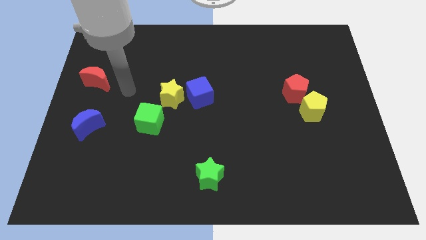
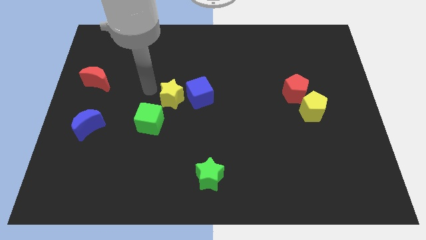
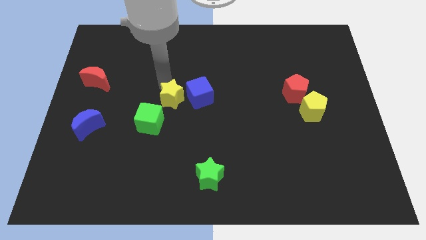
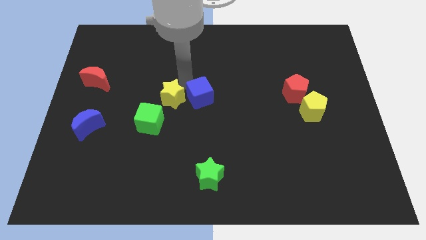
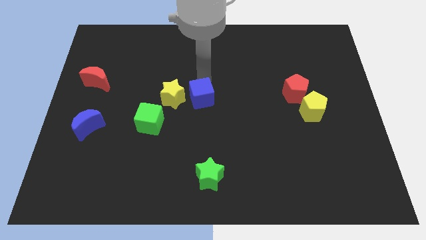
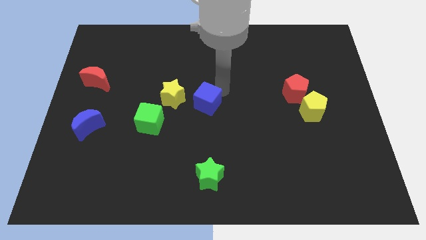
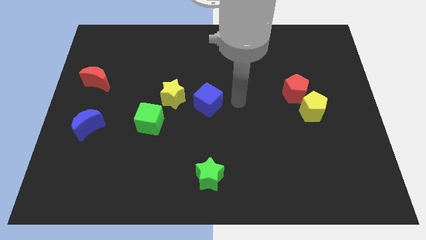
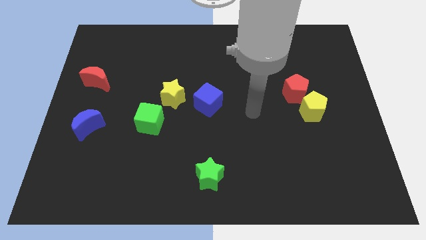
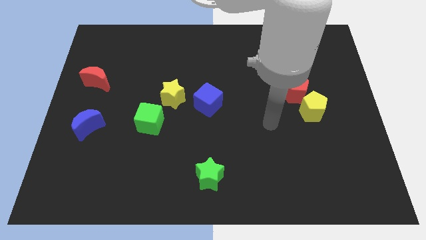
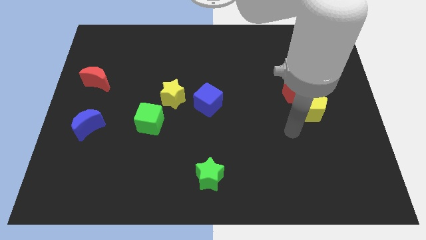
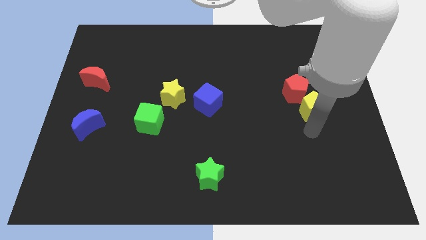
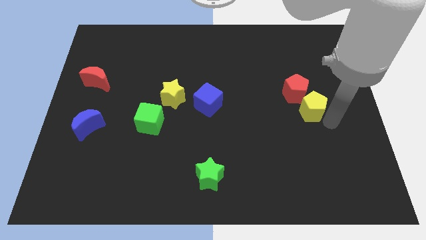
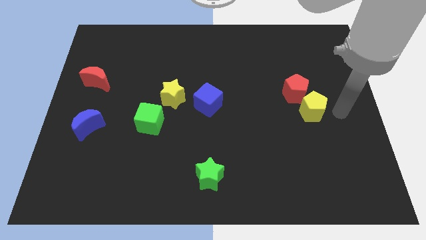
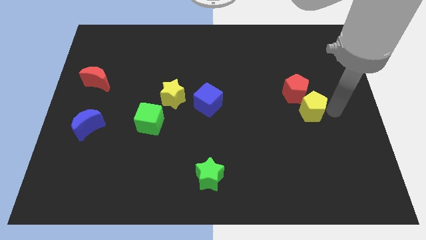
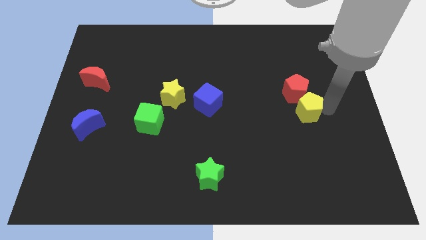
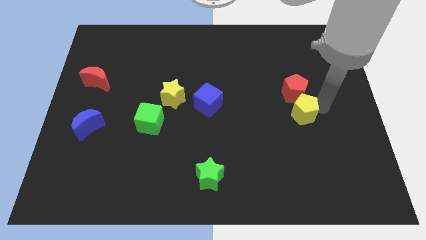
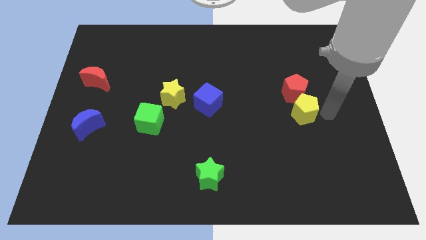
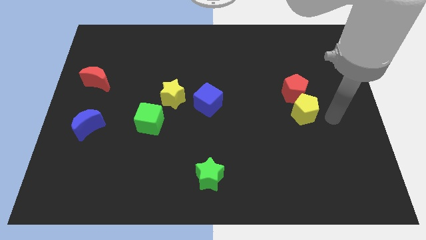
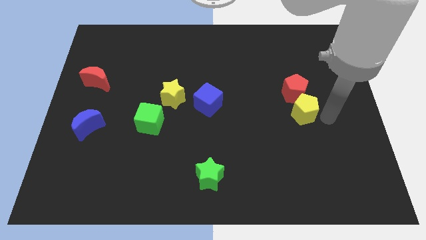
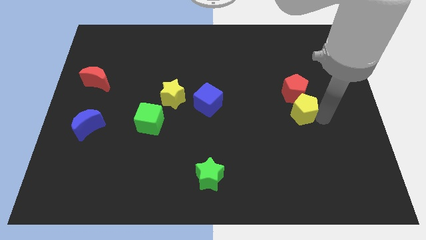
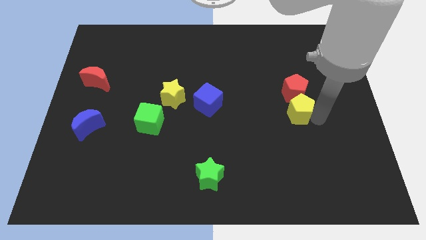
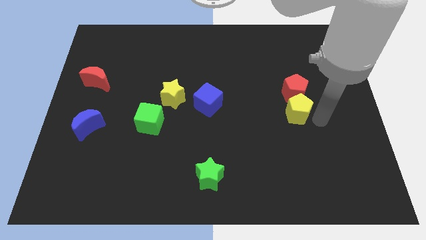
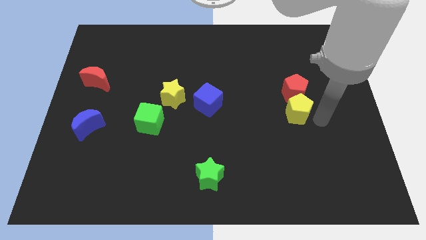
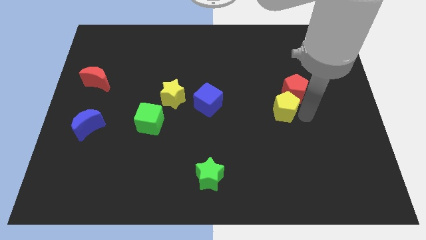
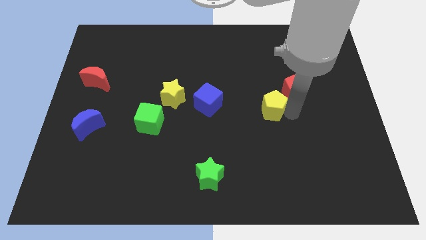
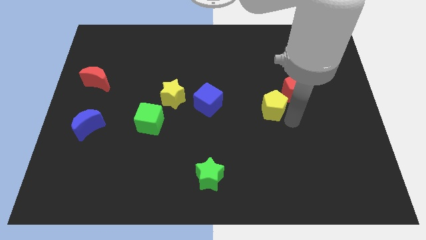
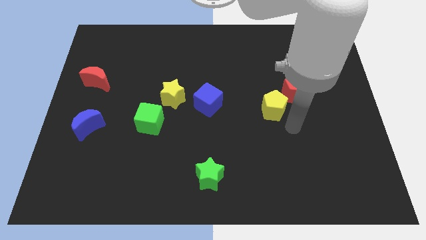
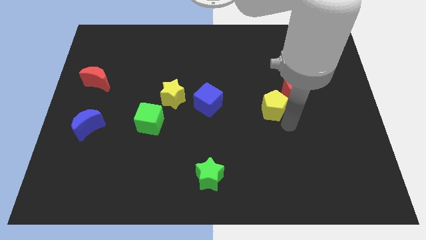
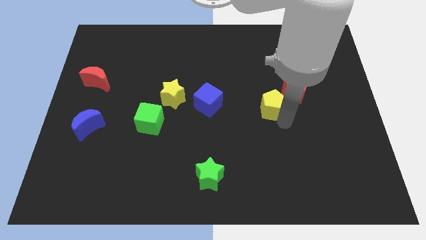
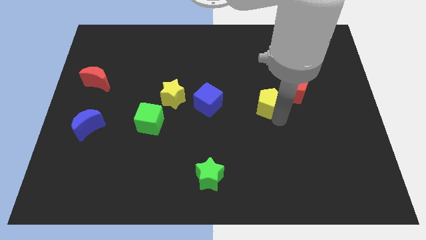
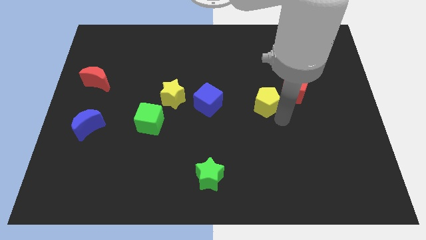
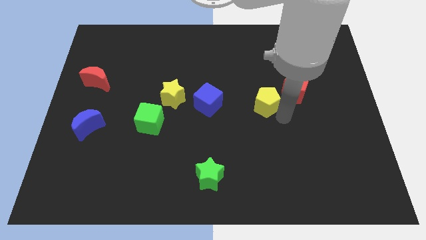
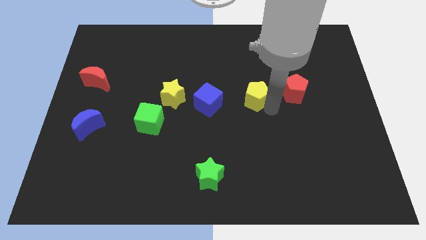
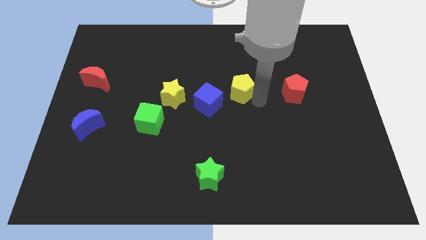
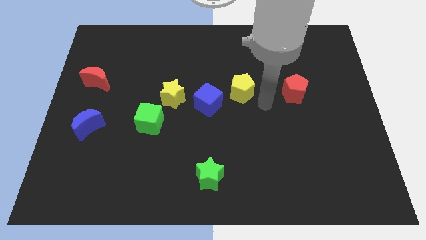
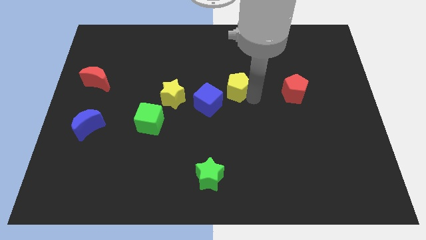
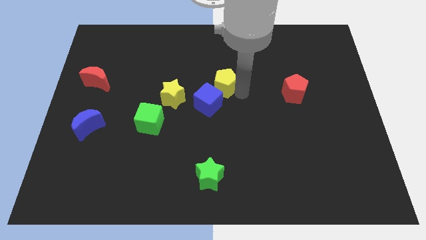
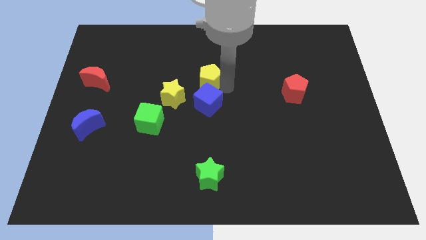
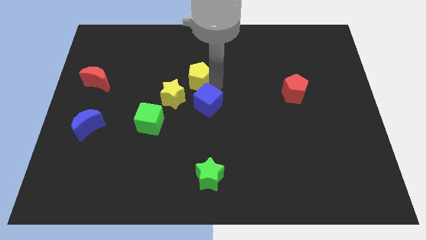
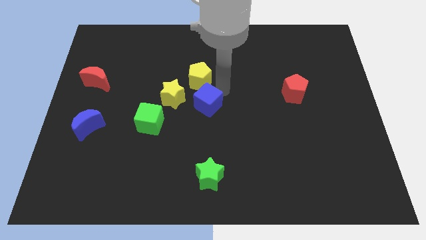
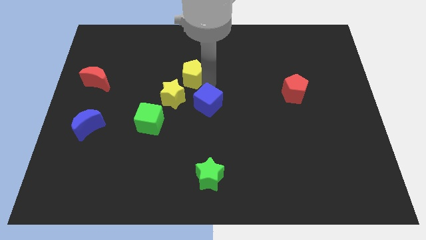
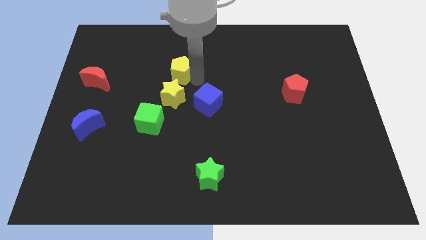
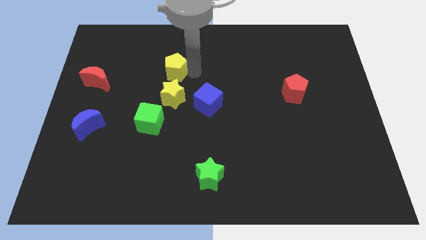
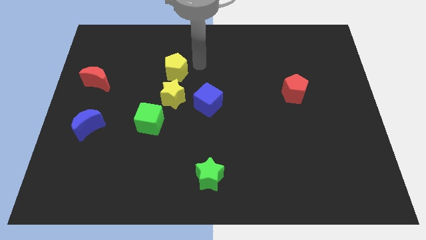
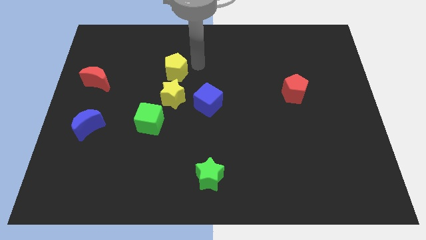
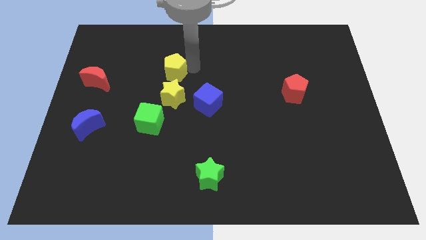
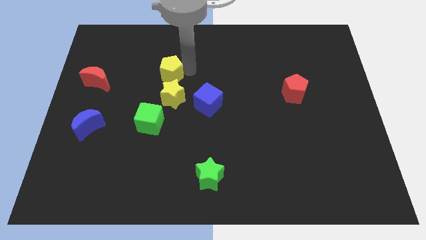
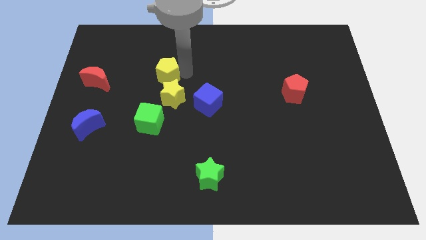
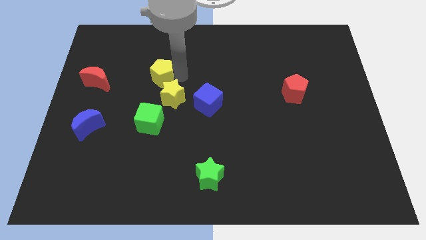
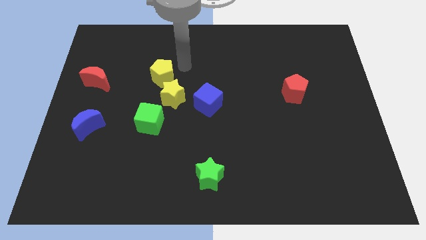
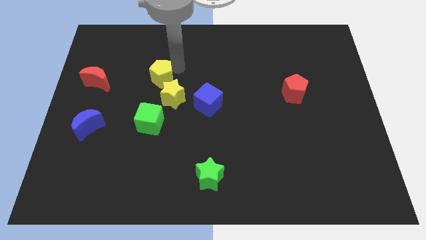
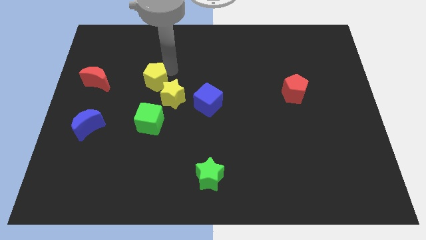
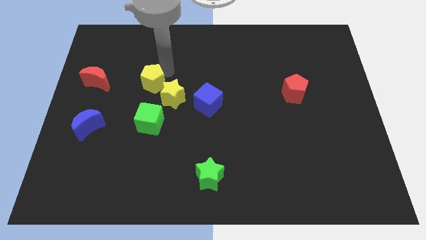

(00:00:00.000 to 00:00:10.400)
move the yellow pentagon to the left of the yellow star

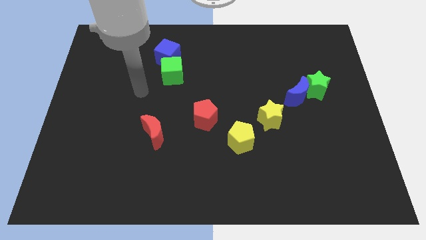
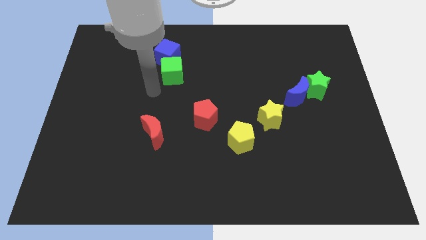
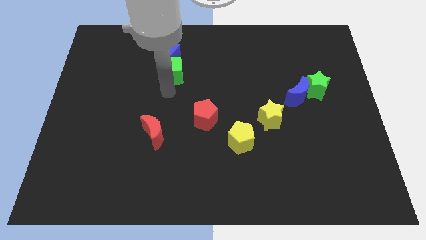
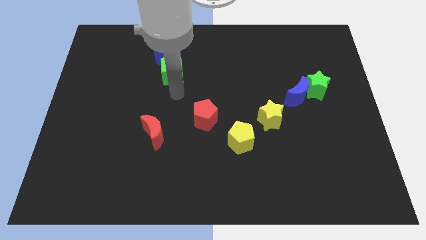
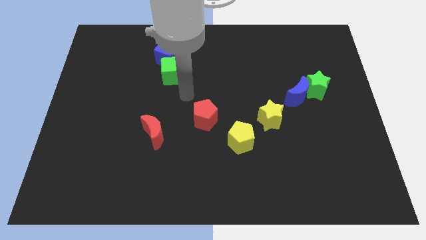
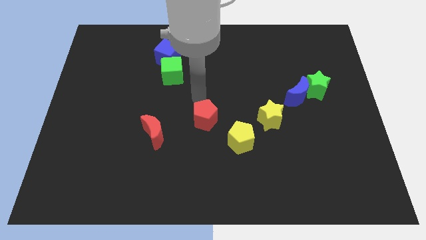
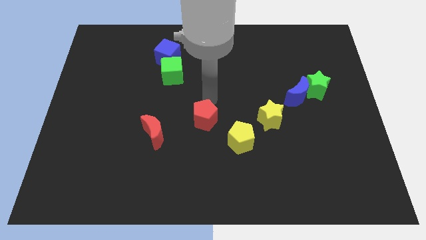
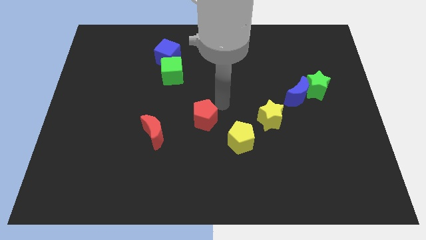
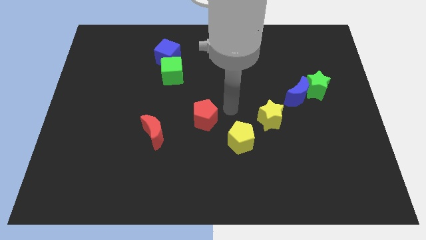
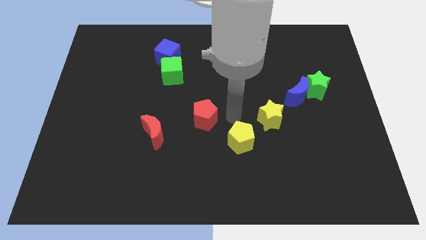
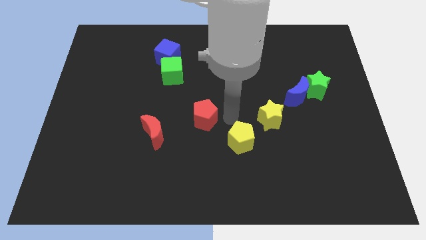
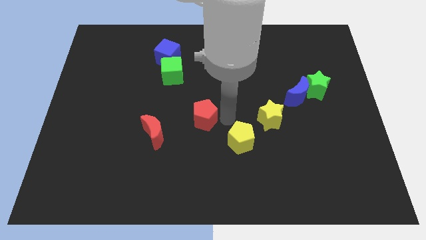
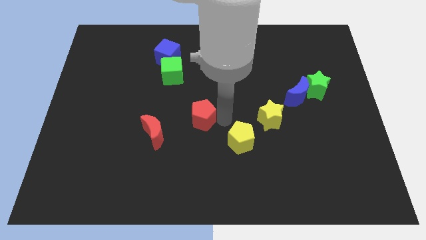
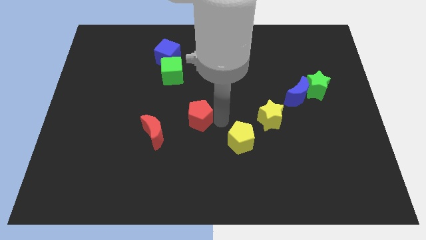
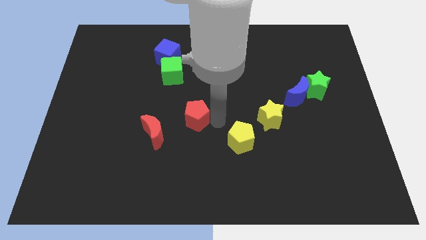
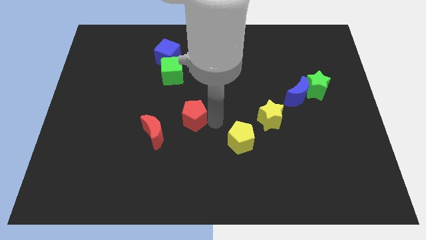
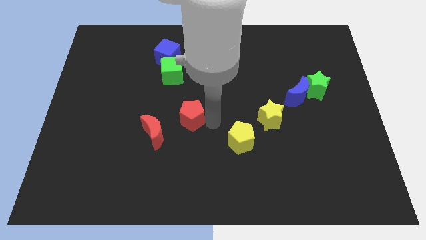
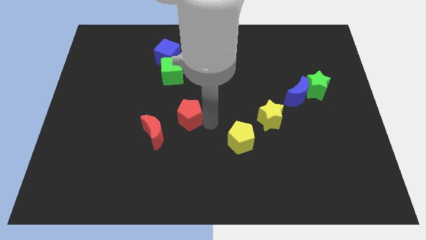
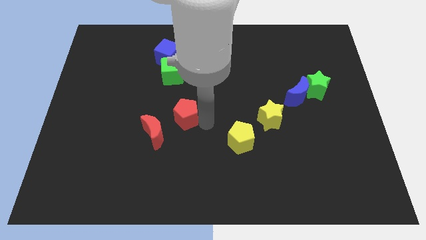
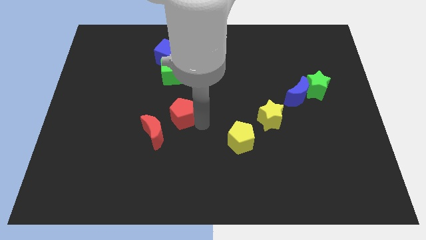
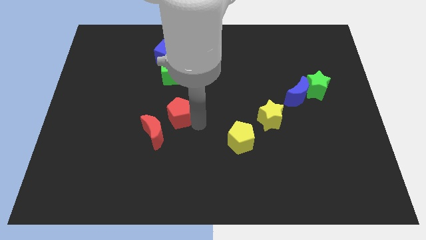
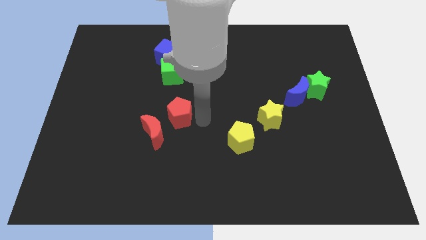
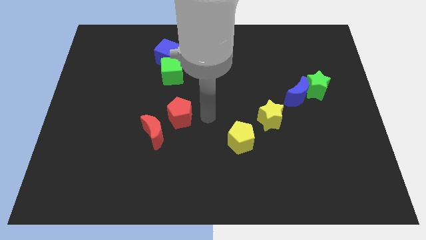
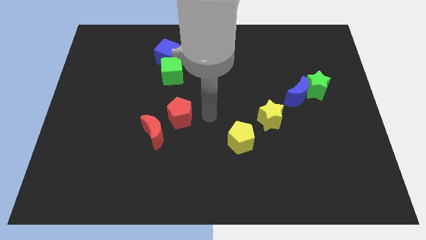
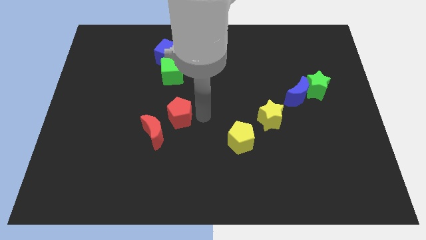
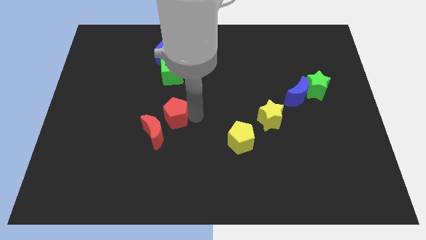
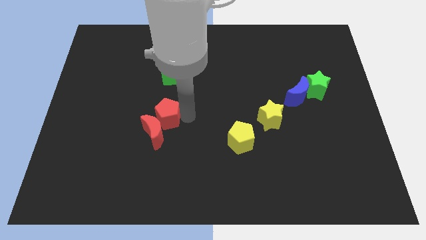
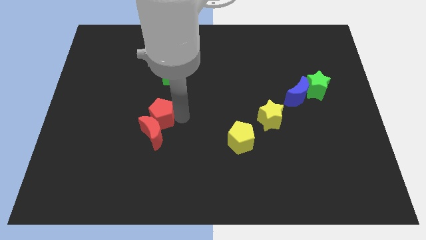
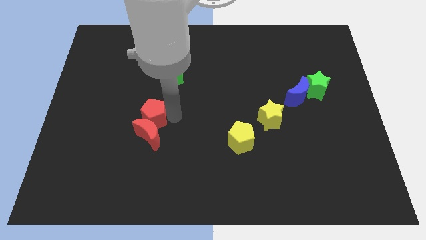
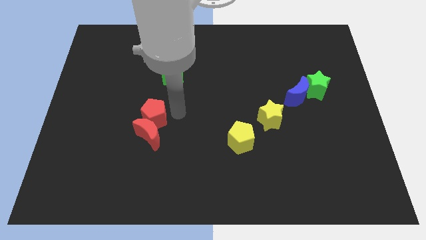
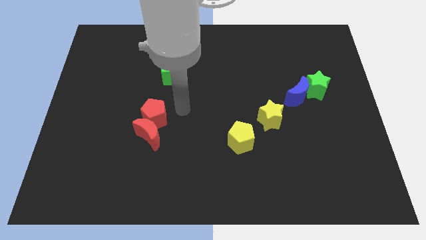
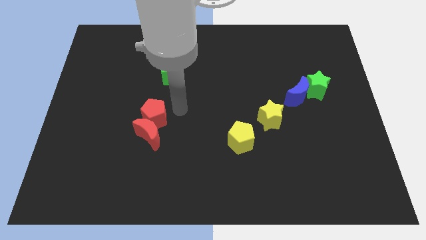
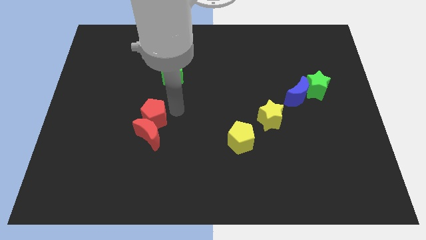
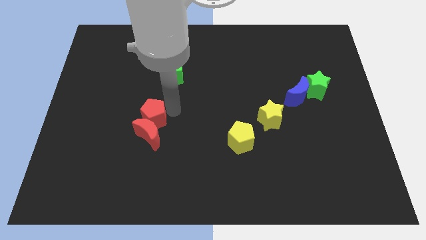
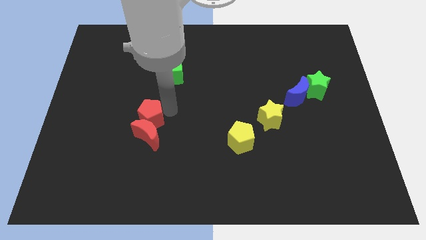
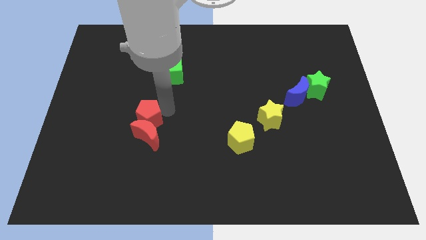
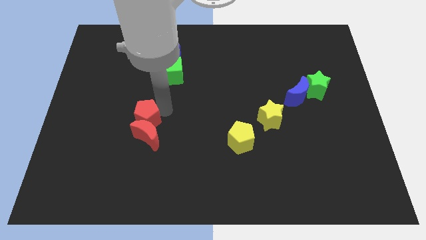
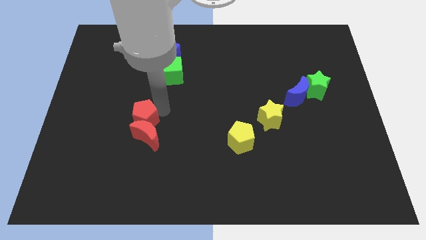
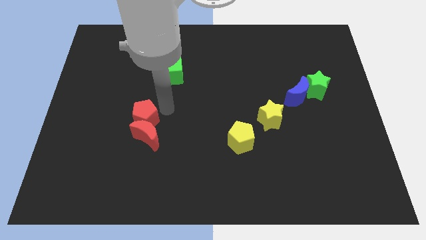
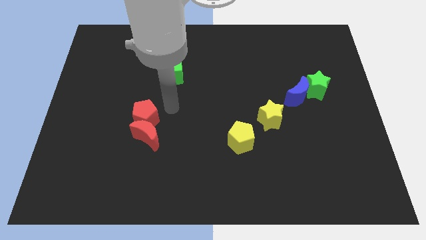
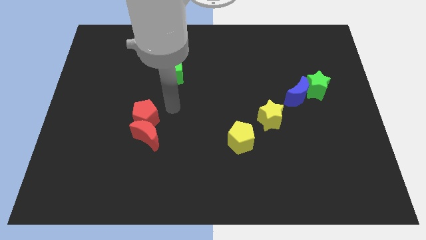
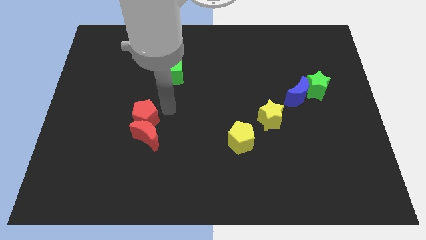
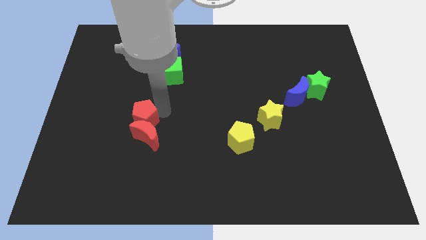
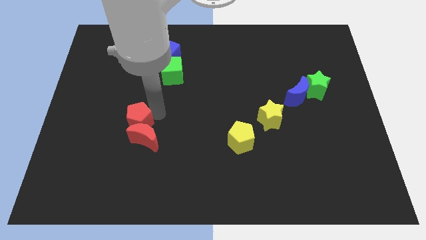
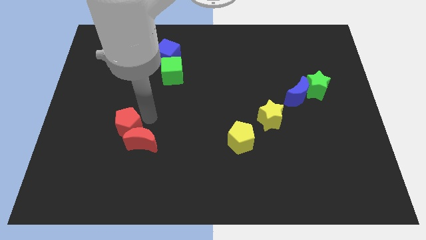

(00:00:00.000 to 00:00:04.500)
push the red pentagon just left of the red moon
